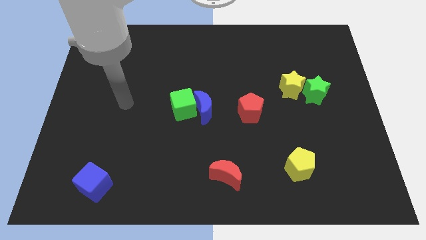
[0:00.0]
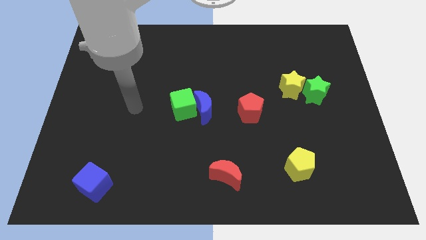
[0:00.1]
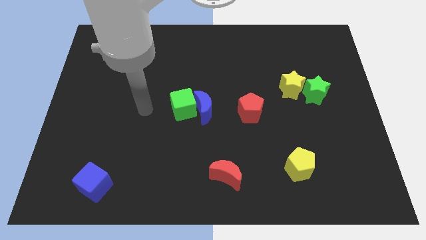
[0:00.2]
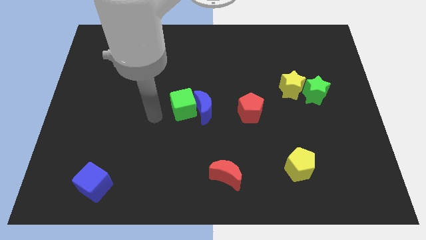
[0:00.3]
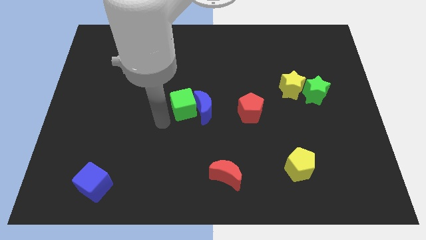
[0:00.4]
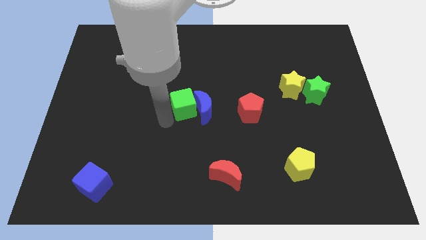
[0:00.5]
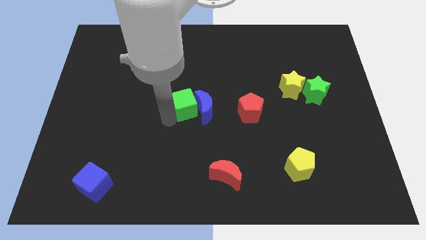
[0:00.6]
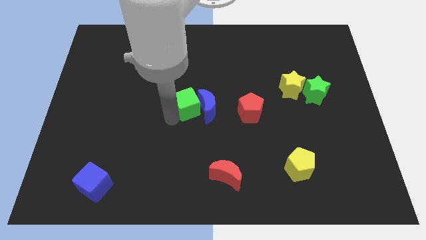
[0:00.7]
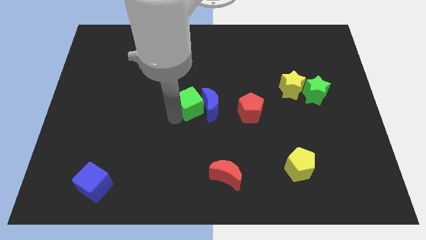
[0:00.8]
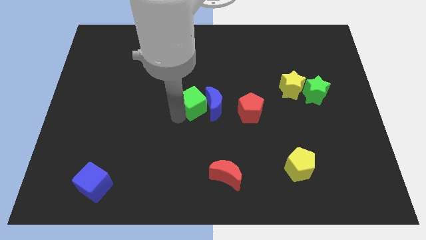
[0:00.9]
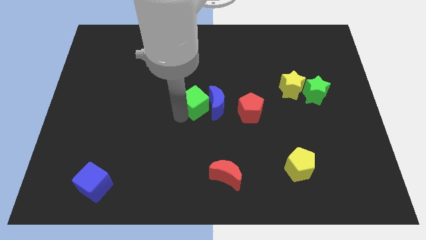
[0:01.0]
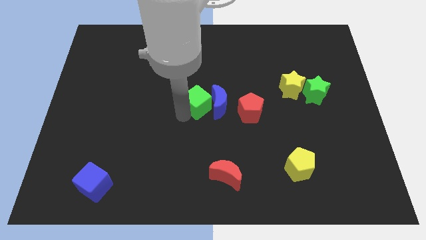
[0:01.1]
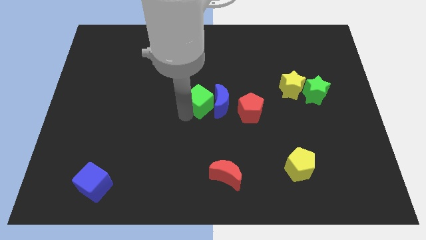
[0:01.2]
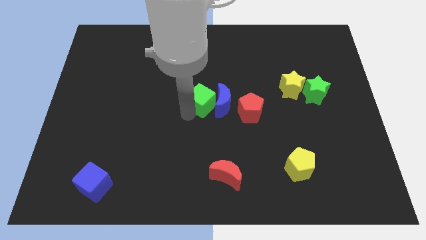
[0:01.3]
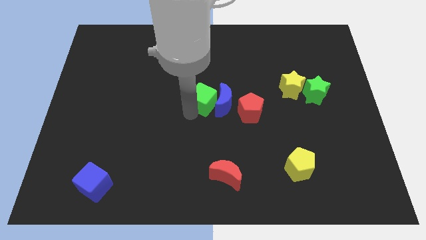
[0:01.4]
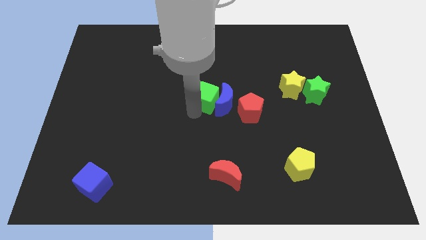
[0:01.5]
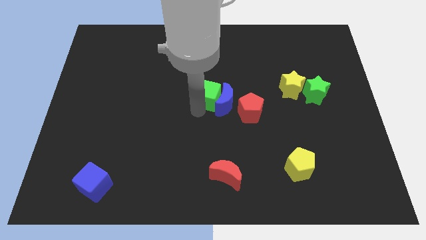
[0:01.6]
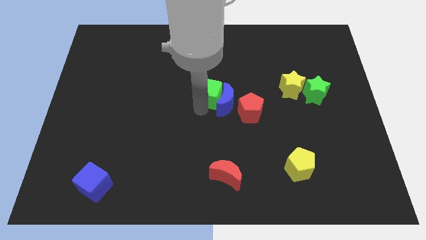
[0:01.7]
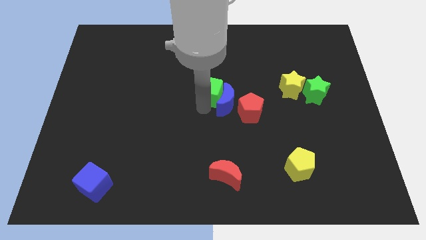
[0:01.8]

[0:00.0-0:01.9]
move the green cube somewhat up and then to the right

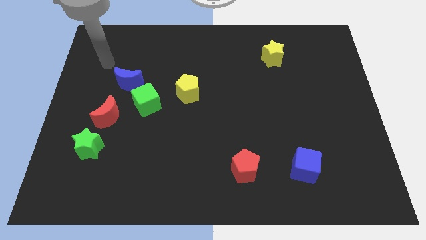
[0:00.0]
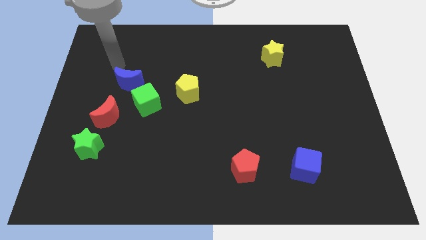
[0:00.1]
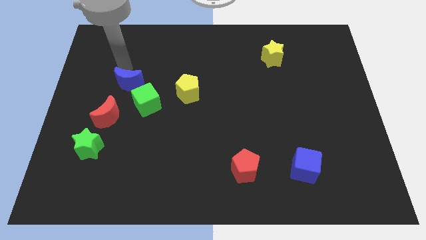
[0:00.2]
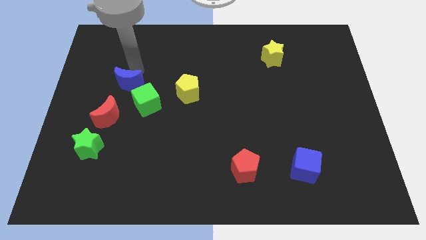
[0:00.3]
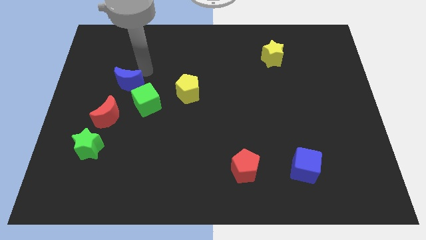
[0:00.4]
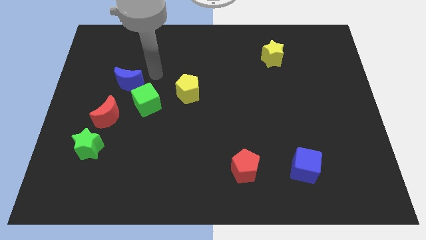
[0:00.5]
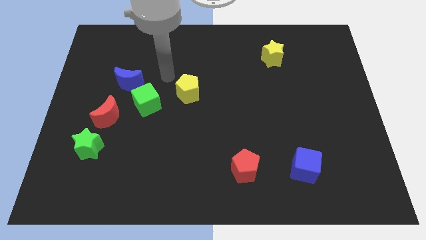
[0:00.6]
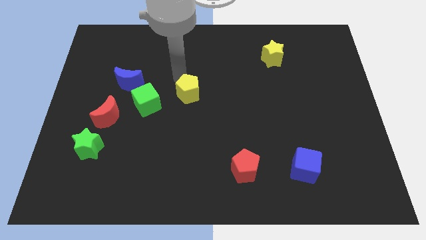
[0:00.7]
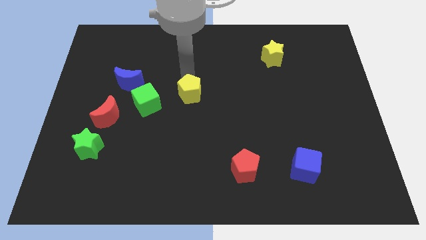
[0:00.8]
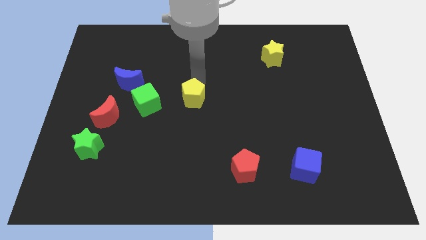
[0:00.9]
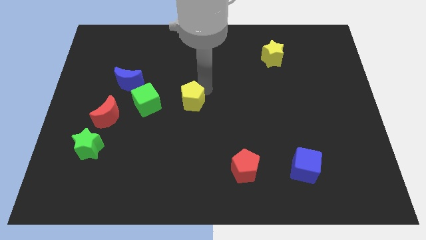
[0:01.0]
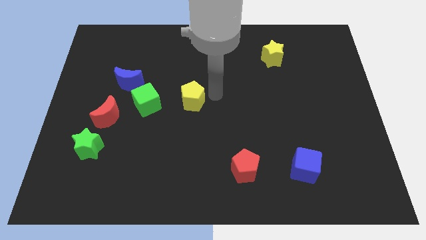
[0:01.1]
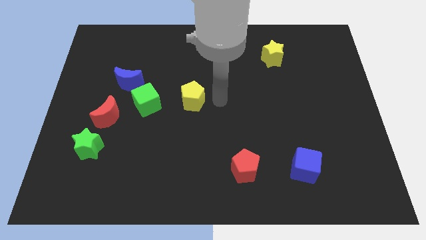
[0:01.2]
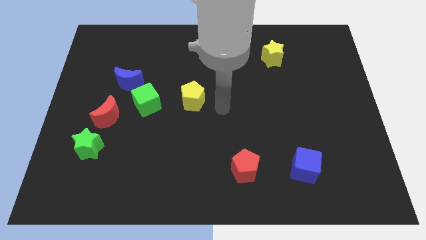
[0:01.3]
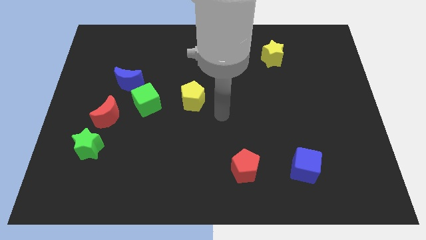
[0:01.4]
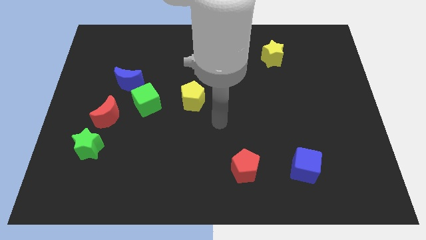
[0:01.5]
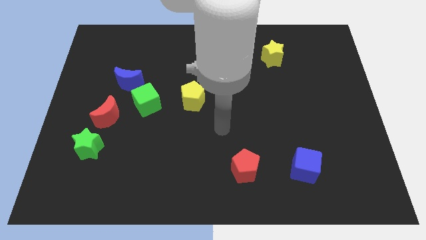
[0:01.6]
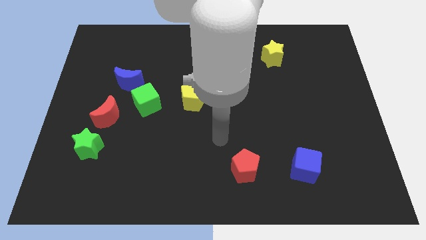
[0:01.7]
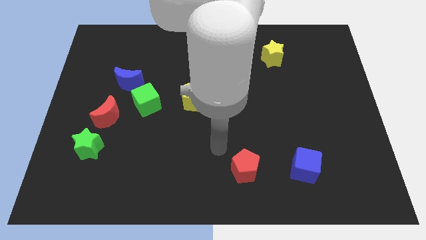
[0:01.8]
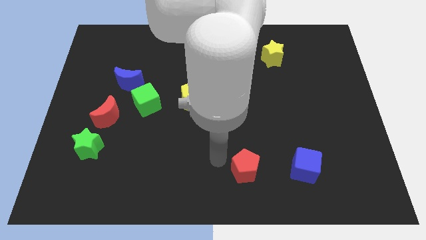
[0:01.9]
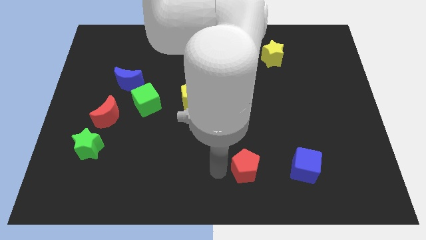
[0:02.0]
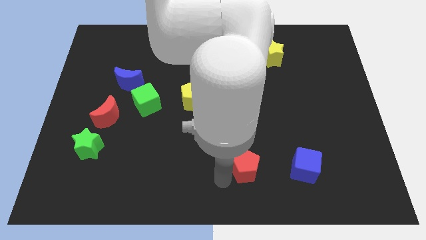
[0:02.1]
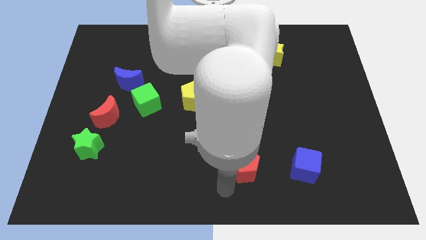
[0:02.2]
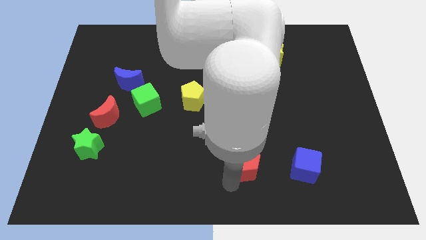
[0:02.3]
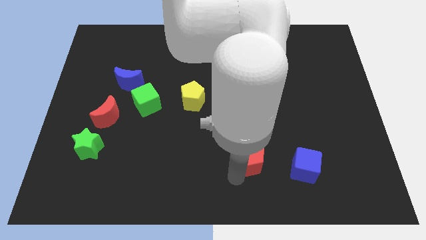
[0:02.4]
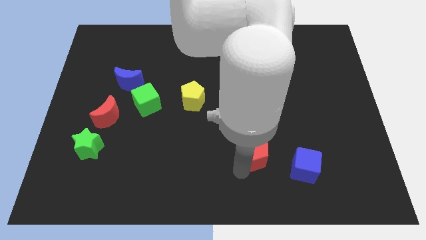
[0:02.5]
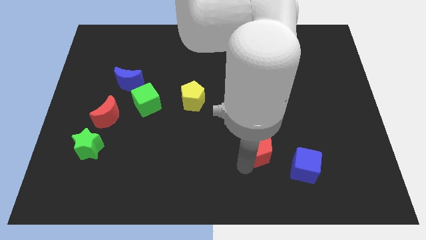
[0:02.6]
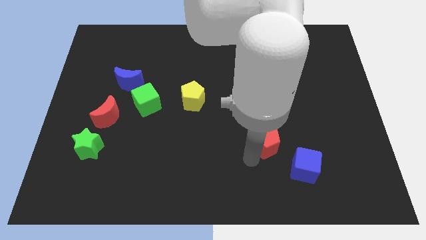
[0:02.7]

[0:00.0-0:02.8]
slide the red pentagon up and right diagonally a bit

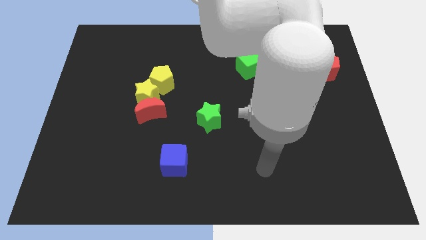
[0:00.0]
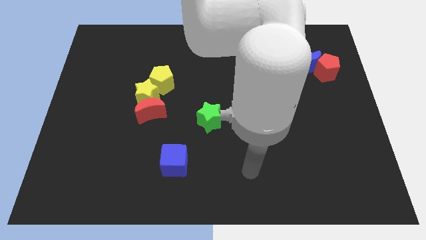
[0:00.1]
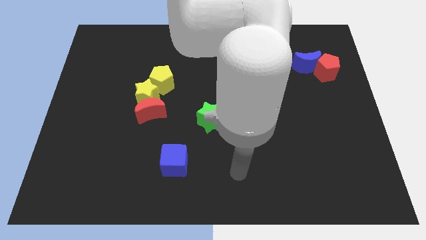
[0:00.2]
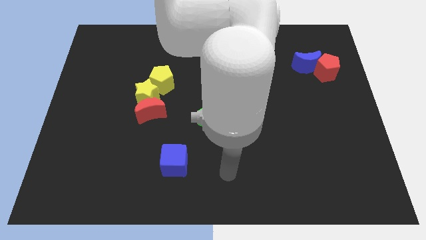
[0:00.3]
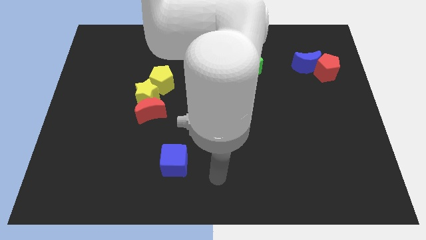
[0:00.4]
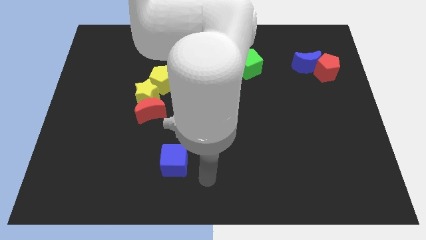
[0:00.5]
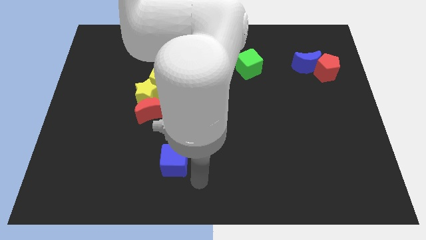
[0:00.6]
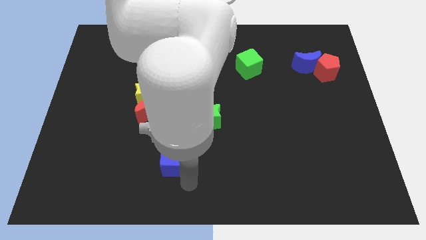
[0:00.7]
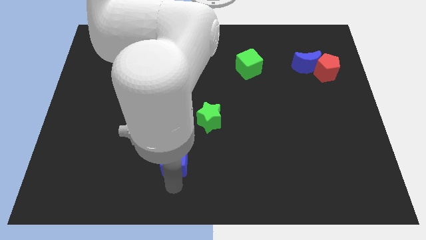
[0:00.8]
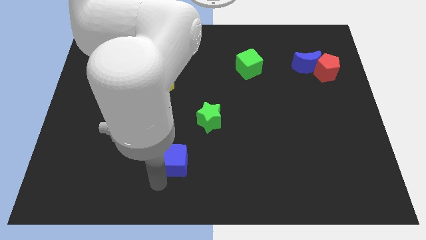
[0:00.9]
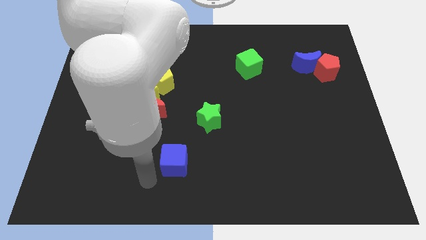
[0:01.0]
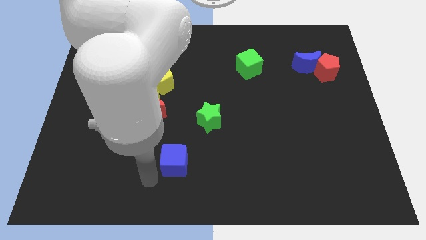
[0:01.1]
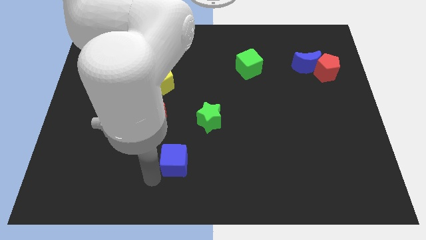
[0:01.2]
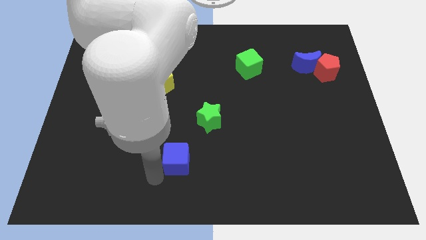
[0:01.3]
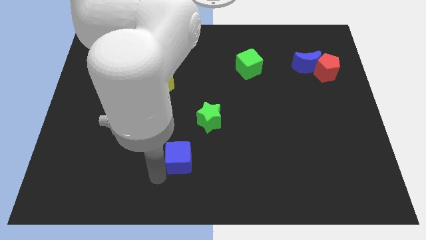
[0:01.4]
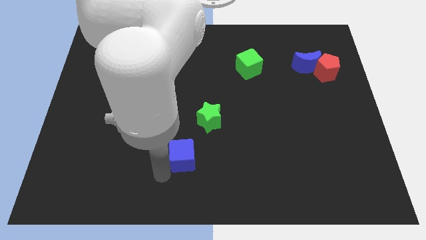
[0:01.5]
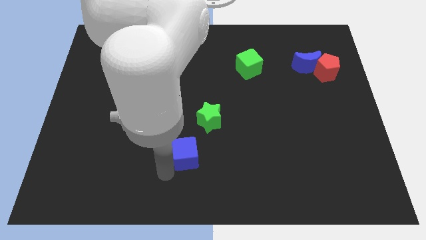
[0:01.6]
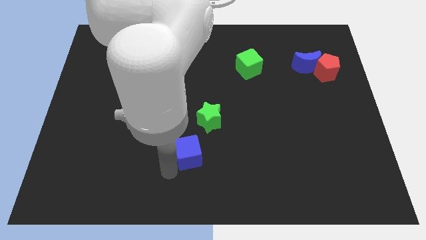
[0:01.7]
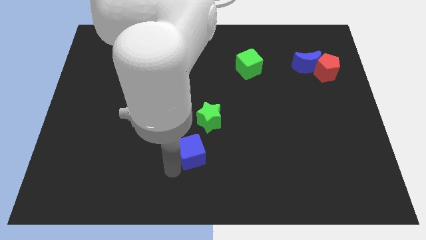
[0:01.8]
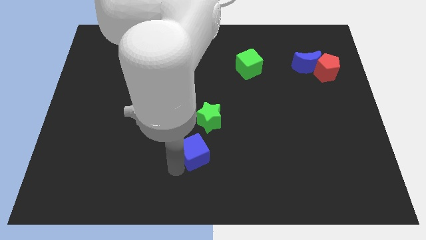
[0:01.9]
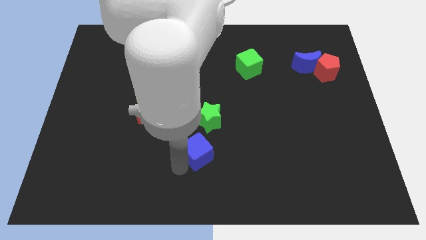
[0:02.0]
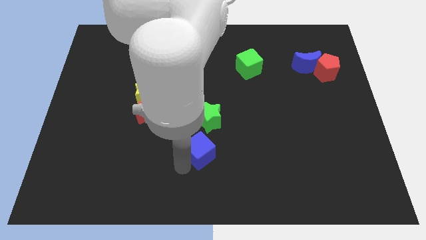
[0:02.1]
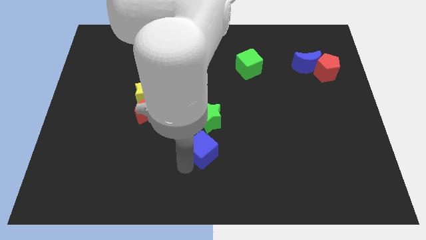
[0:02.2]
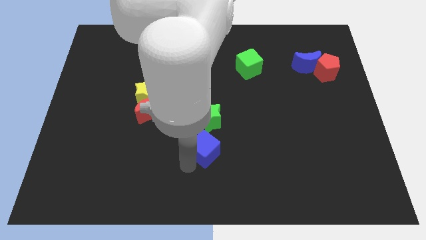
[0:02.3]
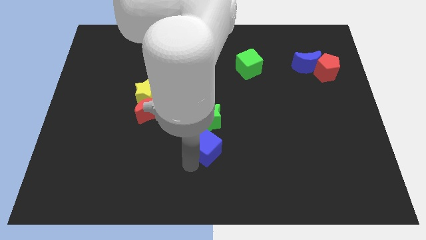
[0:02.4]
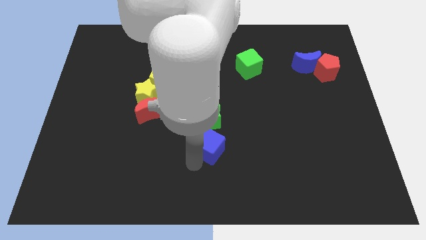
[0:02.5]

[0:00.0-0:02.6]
slide the blue cube up and then to the right a little

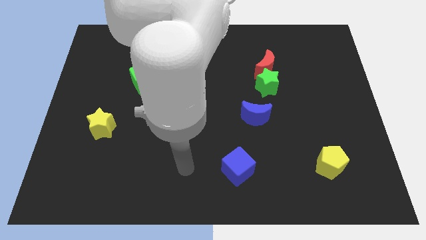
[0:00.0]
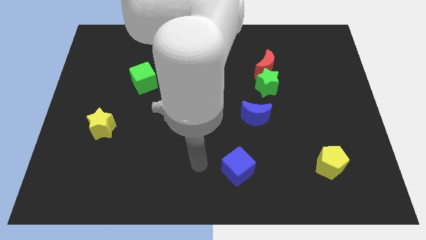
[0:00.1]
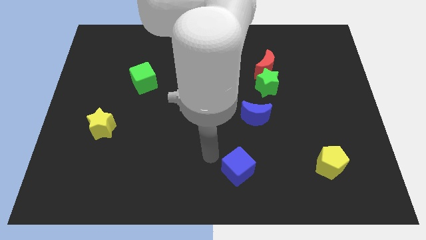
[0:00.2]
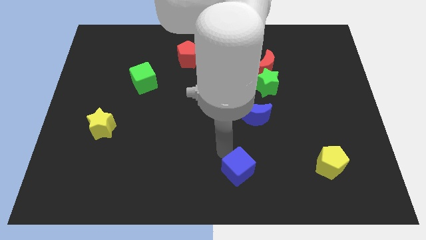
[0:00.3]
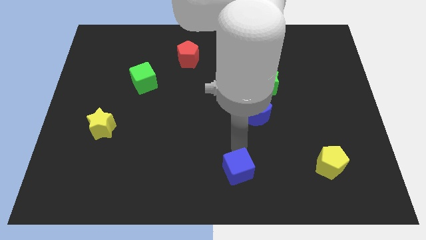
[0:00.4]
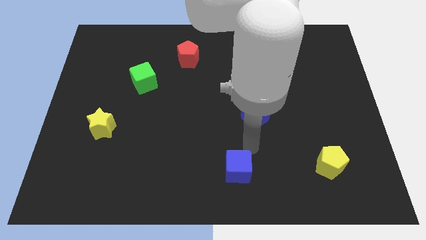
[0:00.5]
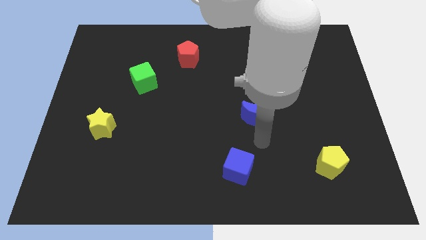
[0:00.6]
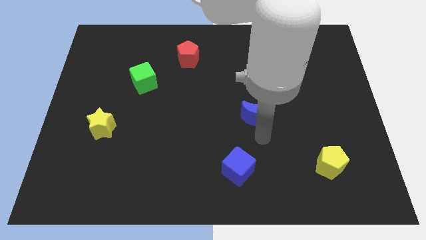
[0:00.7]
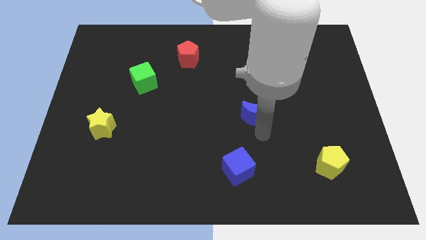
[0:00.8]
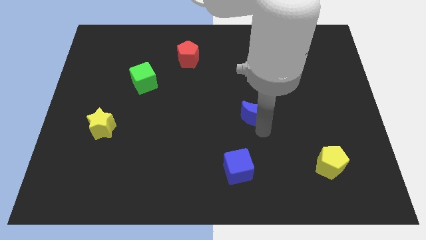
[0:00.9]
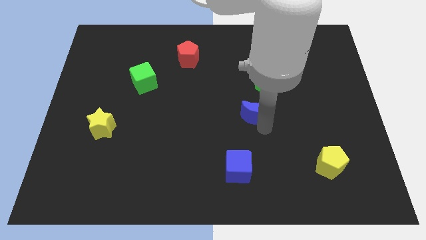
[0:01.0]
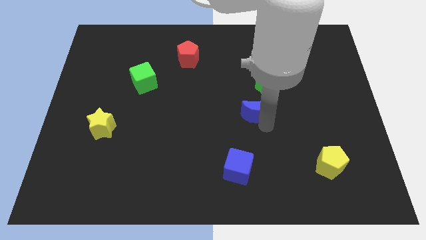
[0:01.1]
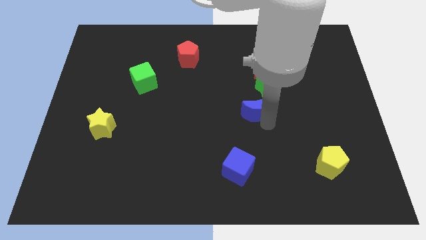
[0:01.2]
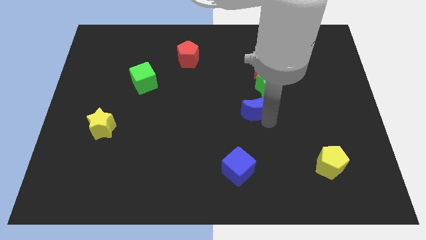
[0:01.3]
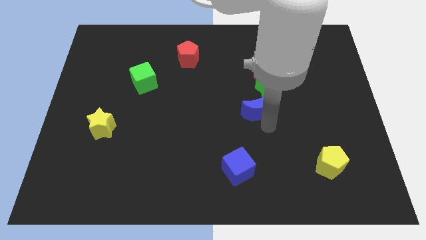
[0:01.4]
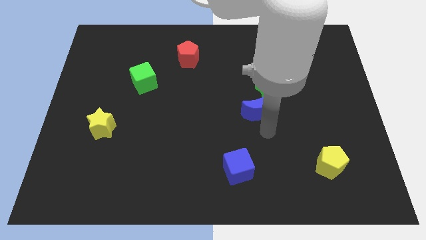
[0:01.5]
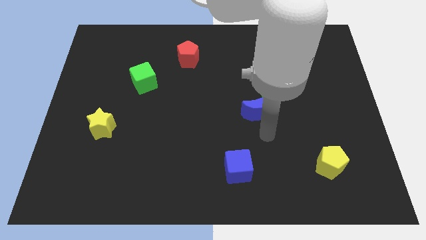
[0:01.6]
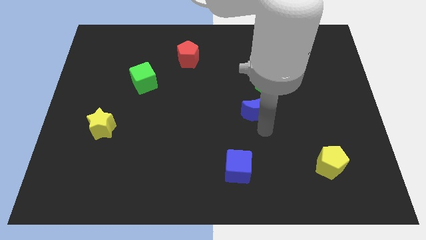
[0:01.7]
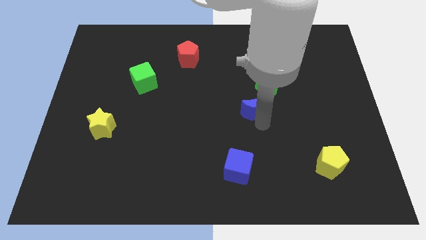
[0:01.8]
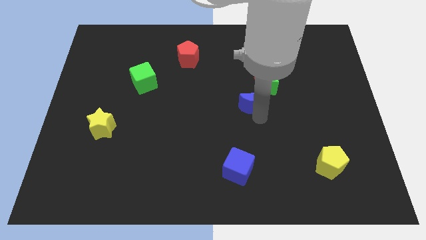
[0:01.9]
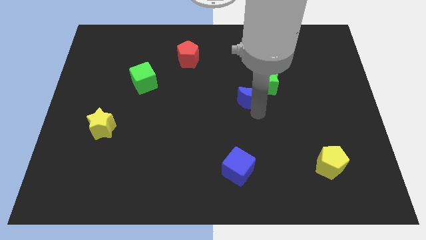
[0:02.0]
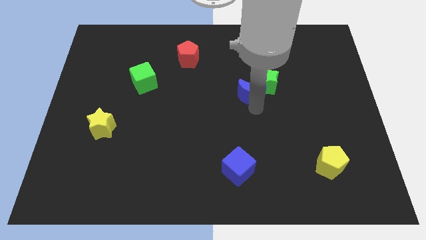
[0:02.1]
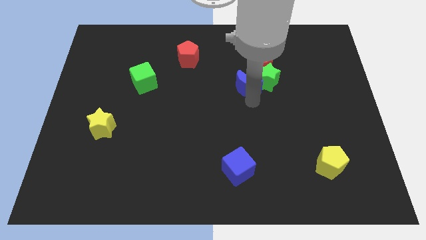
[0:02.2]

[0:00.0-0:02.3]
slightly slide the blue moon upwards
